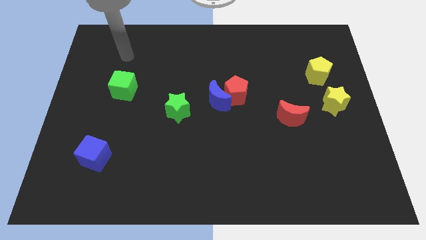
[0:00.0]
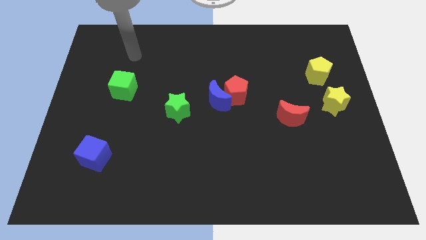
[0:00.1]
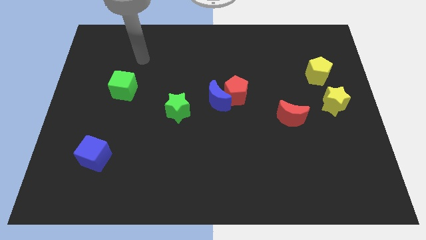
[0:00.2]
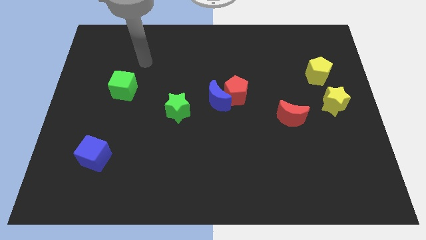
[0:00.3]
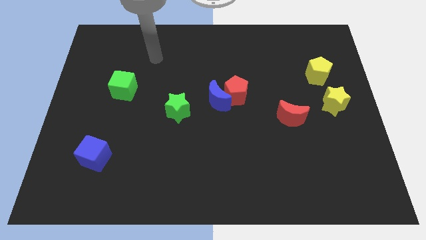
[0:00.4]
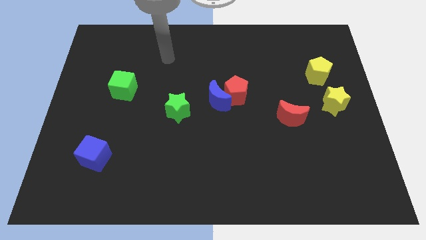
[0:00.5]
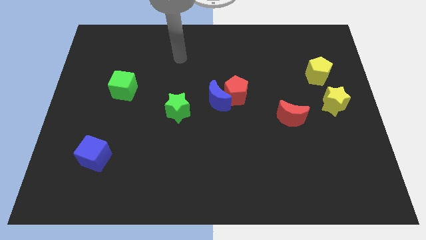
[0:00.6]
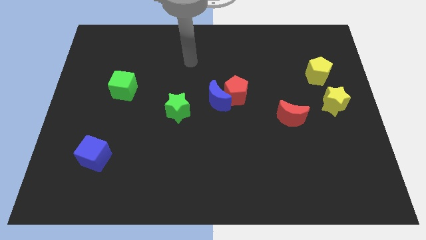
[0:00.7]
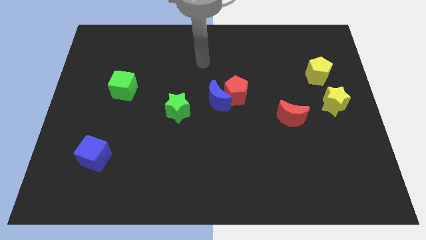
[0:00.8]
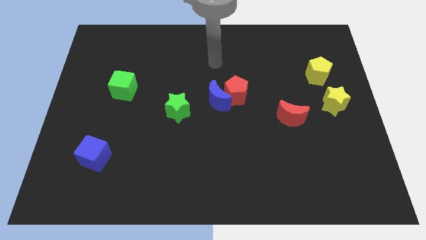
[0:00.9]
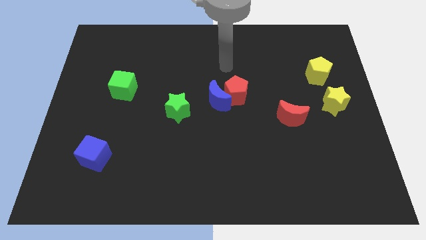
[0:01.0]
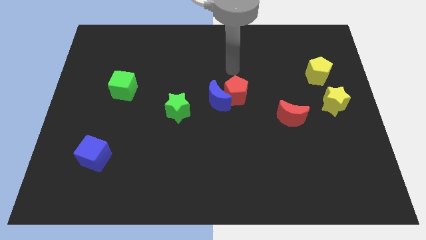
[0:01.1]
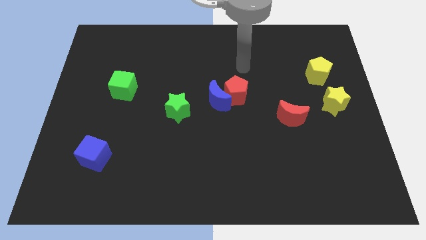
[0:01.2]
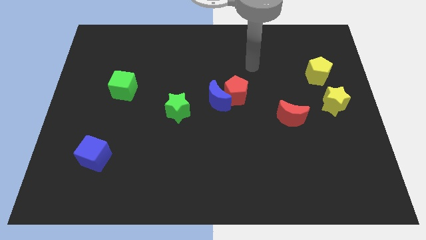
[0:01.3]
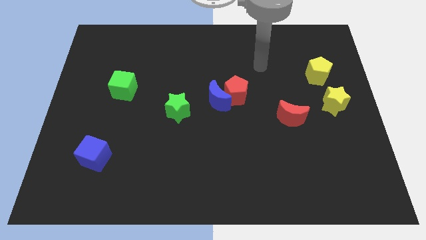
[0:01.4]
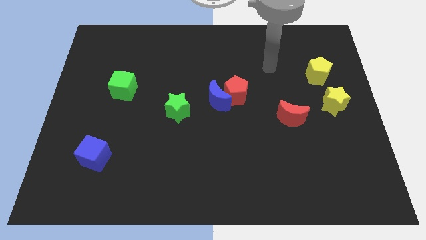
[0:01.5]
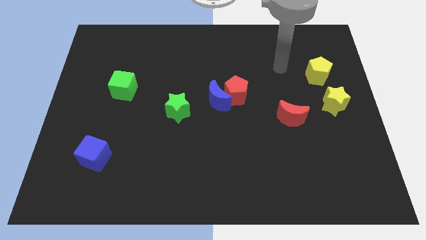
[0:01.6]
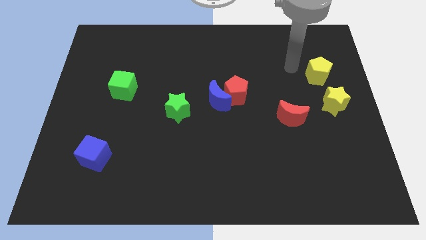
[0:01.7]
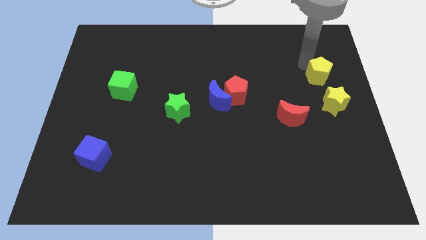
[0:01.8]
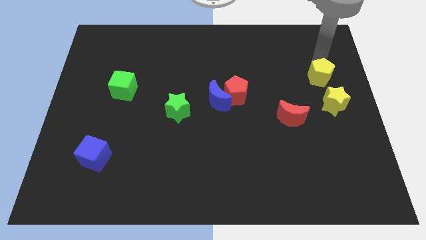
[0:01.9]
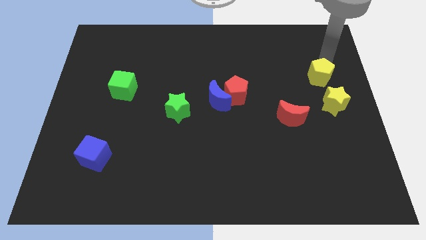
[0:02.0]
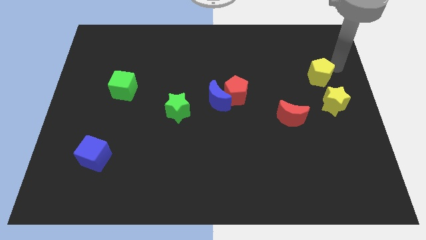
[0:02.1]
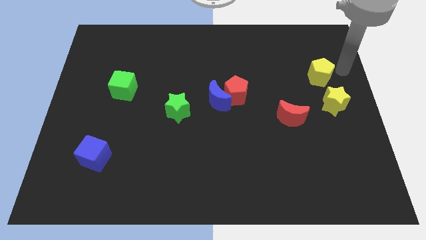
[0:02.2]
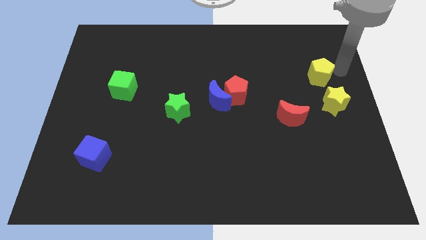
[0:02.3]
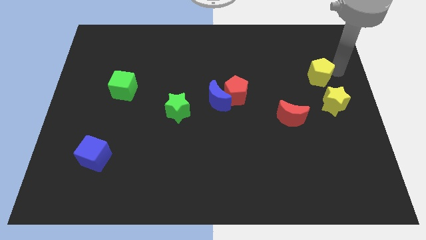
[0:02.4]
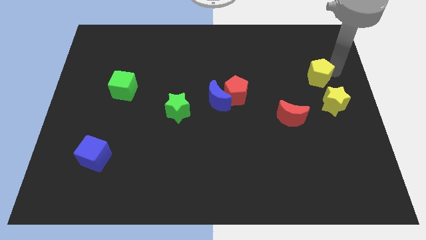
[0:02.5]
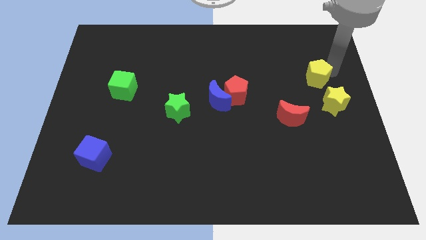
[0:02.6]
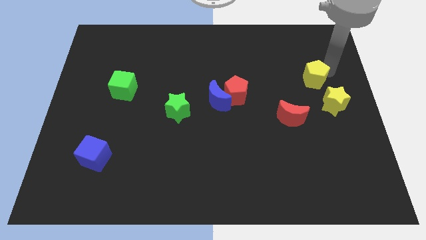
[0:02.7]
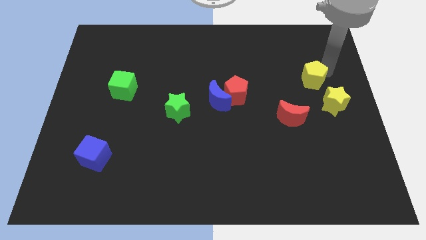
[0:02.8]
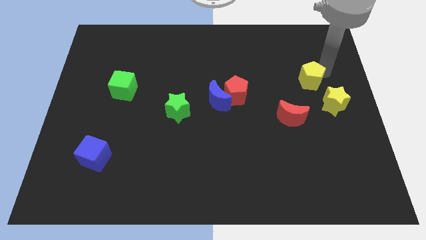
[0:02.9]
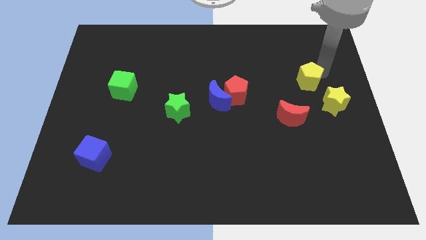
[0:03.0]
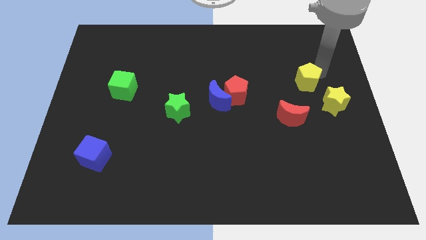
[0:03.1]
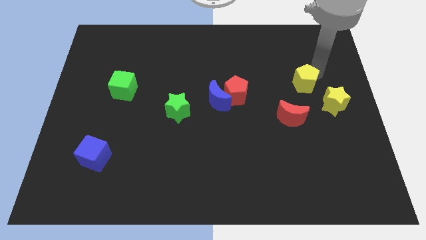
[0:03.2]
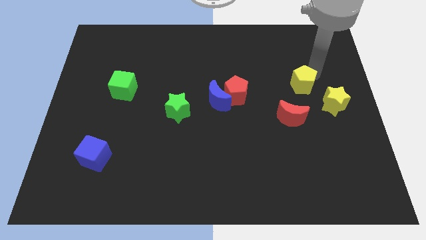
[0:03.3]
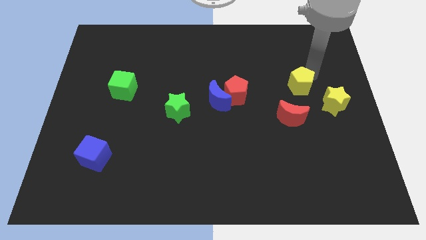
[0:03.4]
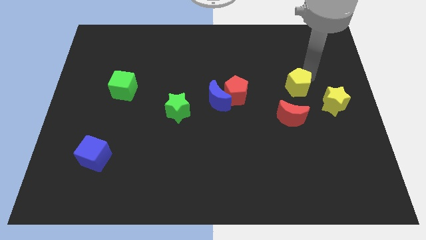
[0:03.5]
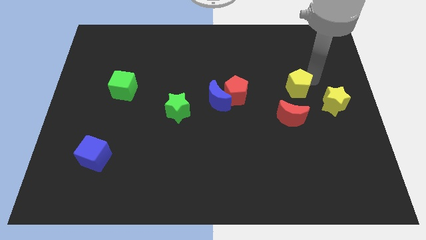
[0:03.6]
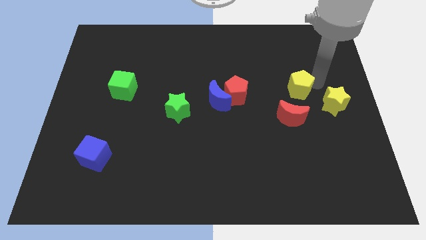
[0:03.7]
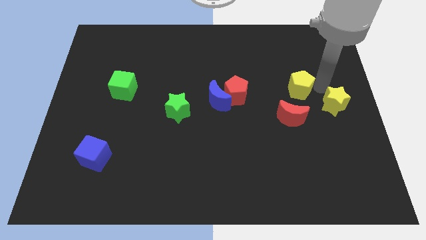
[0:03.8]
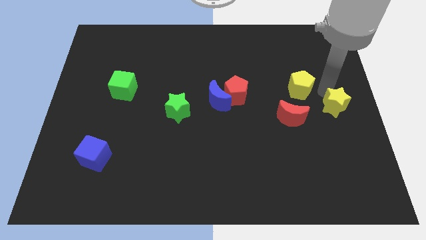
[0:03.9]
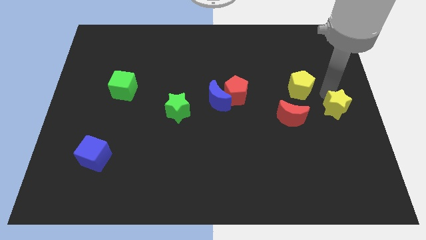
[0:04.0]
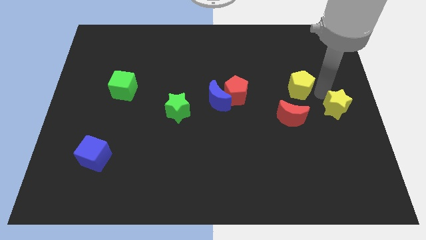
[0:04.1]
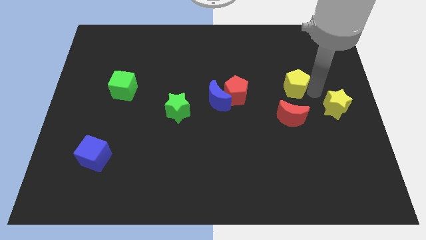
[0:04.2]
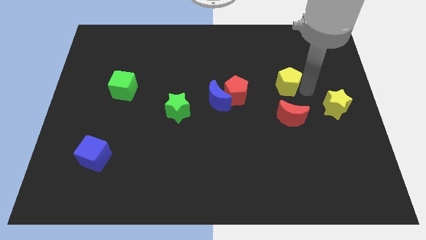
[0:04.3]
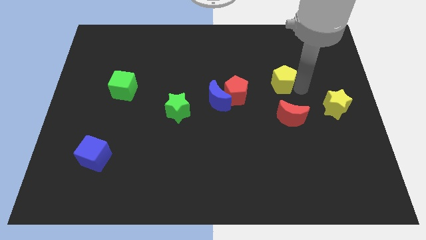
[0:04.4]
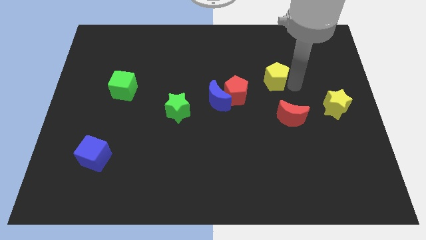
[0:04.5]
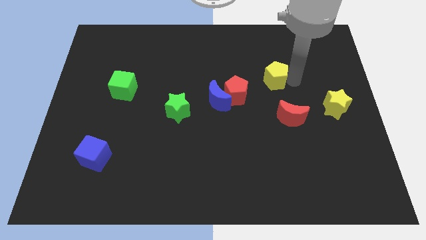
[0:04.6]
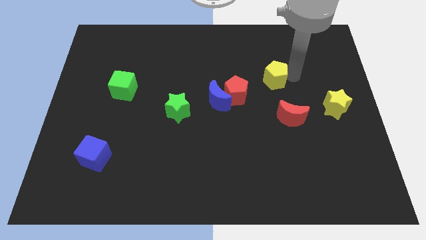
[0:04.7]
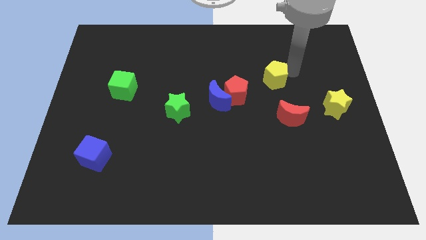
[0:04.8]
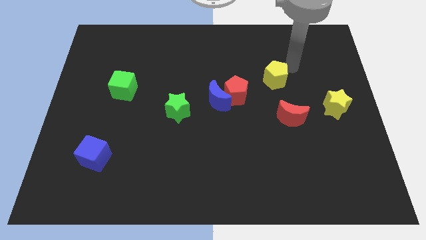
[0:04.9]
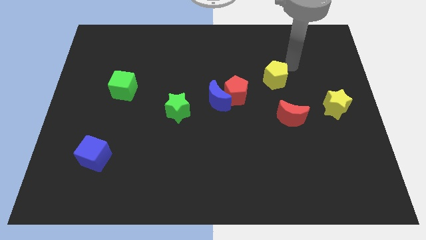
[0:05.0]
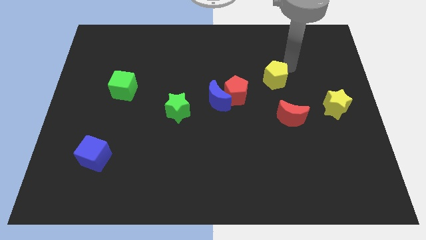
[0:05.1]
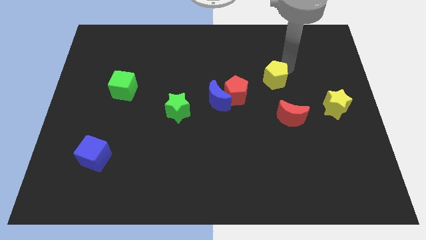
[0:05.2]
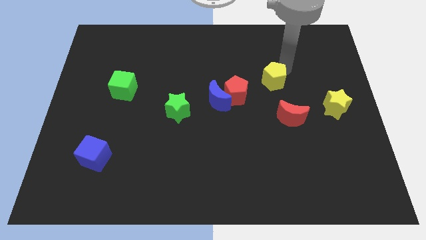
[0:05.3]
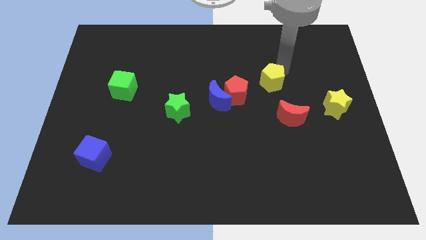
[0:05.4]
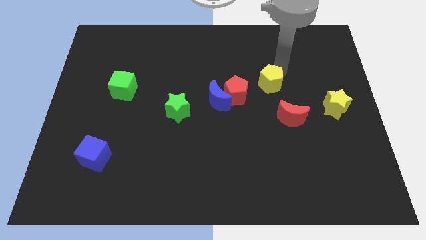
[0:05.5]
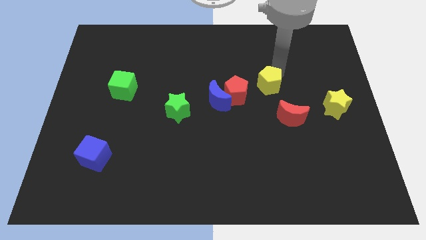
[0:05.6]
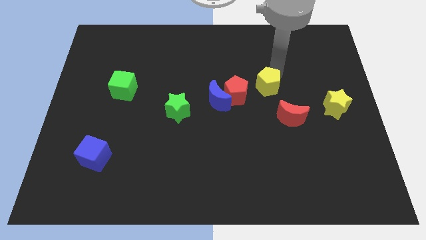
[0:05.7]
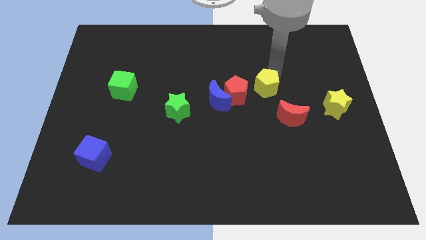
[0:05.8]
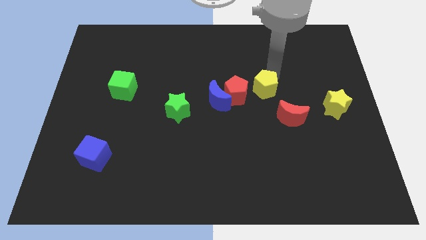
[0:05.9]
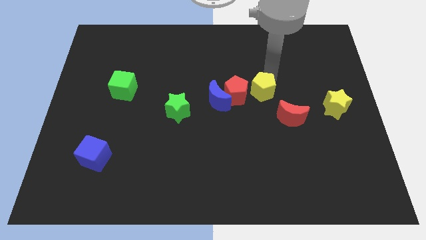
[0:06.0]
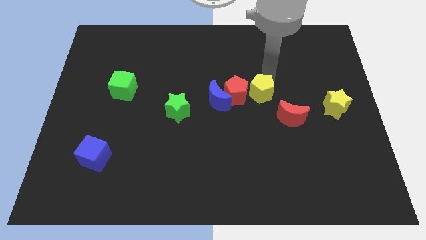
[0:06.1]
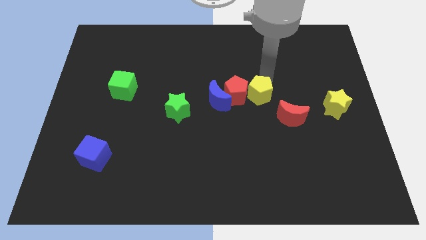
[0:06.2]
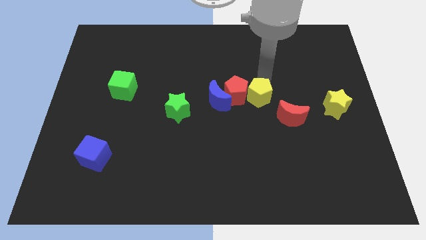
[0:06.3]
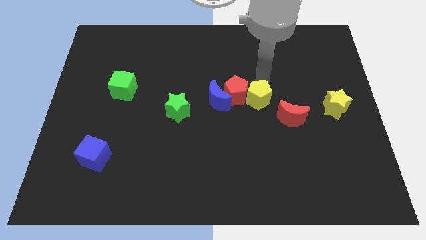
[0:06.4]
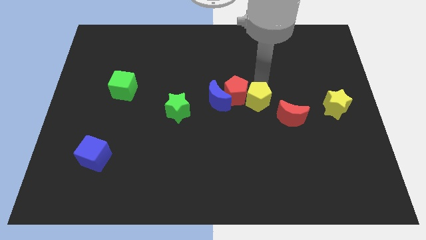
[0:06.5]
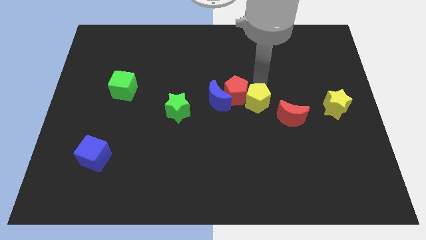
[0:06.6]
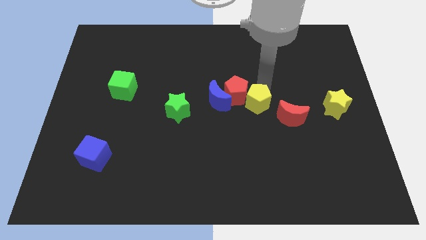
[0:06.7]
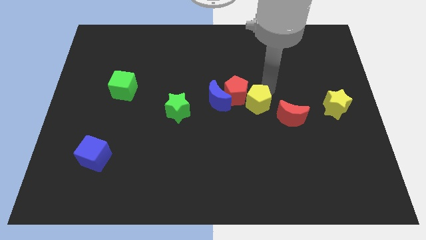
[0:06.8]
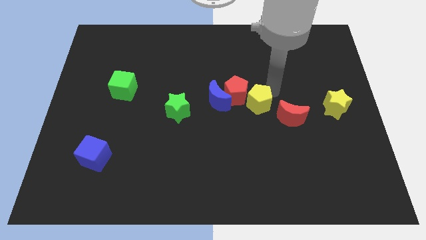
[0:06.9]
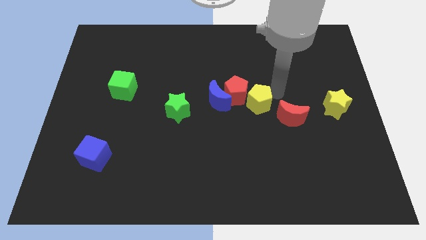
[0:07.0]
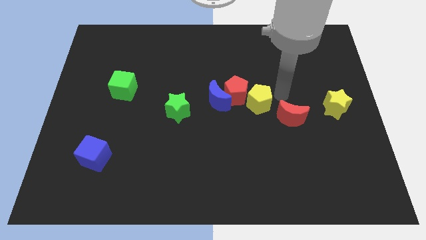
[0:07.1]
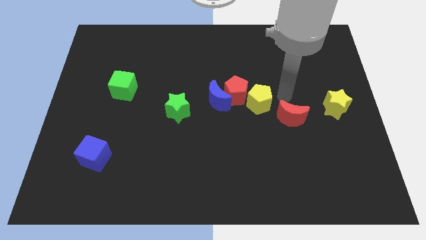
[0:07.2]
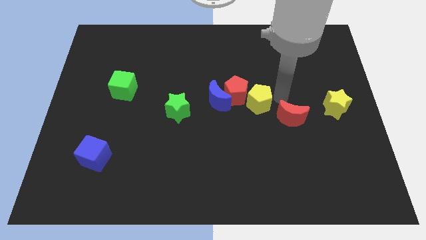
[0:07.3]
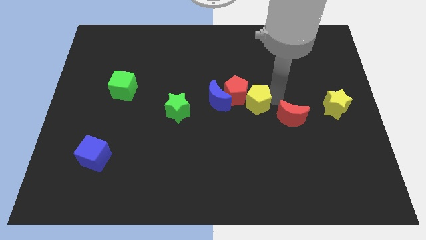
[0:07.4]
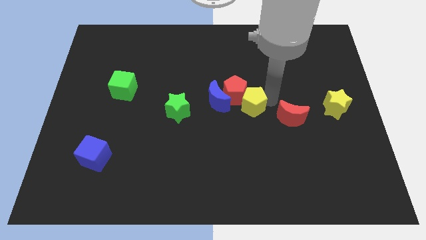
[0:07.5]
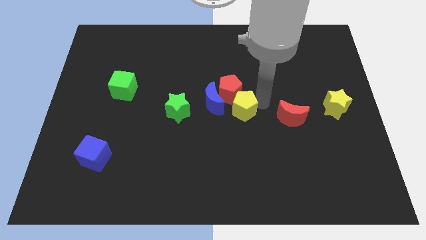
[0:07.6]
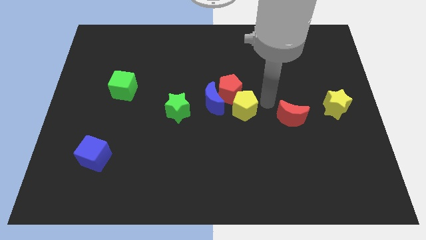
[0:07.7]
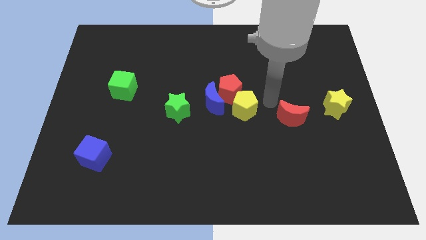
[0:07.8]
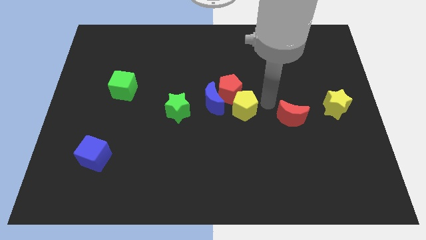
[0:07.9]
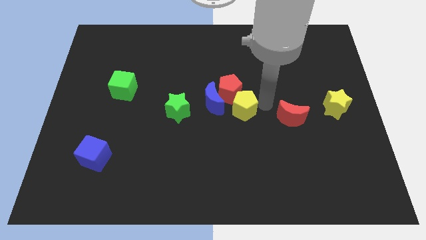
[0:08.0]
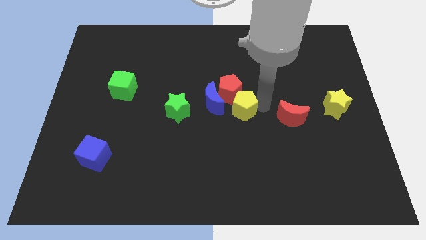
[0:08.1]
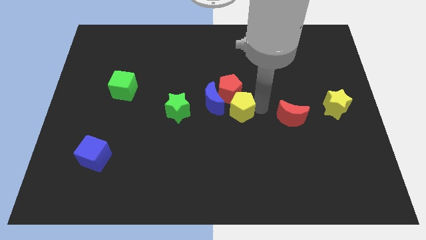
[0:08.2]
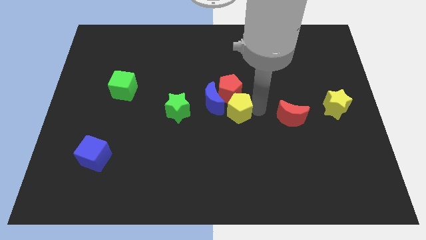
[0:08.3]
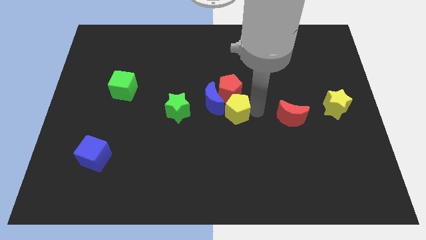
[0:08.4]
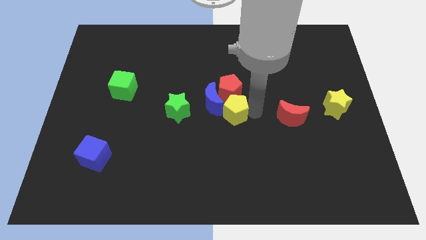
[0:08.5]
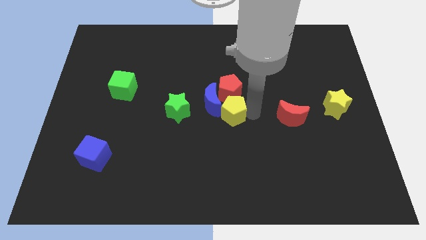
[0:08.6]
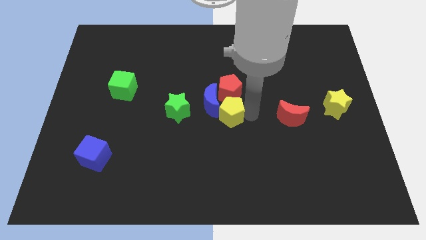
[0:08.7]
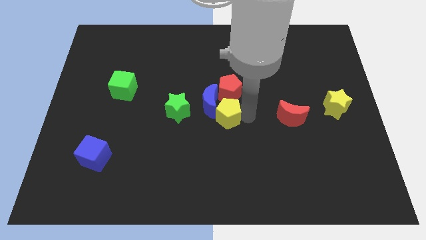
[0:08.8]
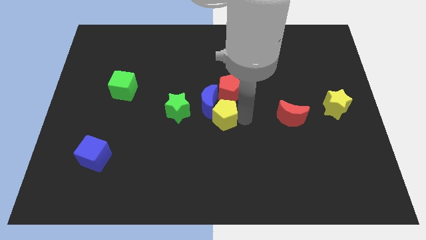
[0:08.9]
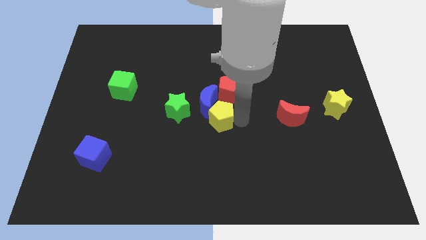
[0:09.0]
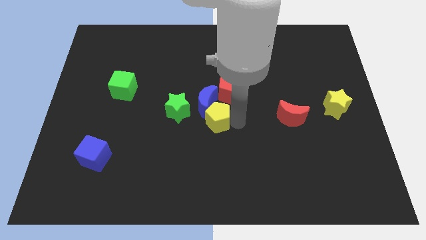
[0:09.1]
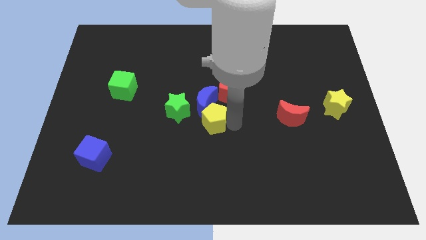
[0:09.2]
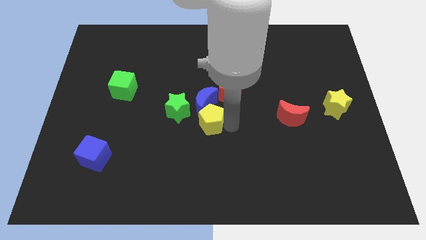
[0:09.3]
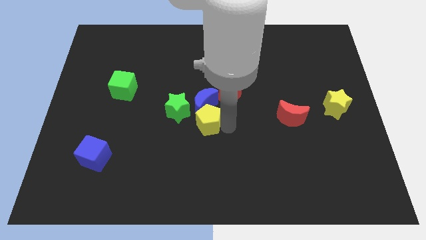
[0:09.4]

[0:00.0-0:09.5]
slide the yellow pentagon diagonally down and to the left of the blue moon
